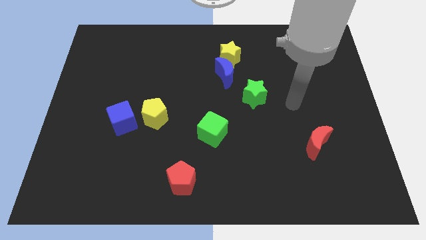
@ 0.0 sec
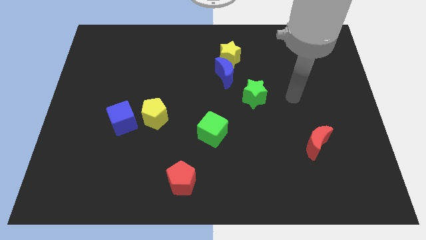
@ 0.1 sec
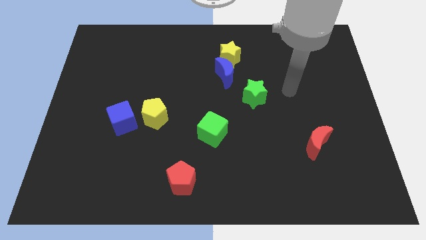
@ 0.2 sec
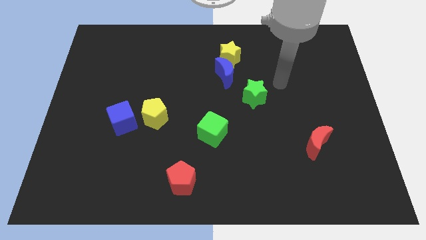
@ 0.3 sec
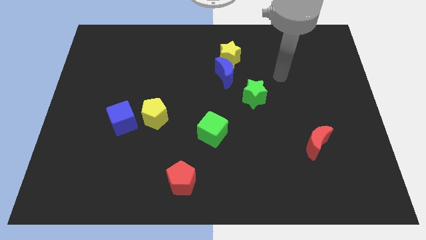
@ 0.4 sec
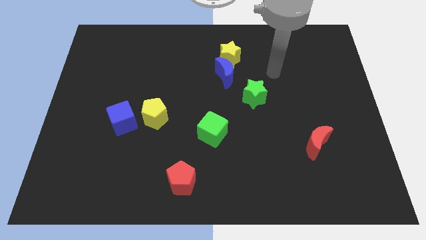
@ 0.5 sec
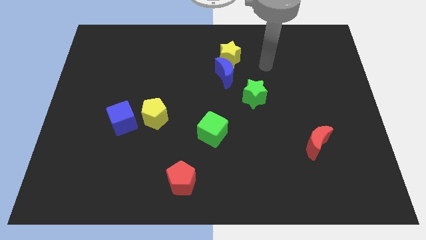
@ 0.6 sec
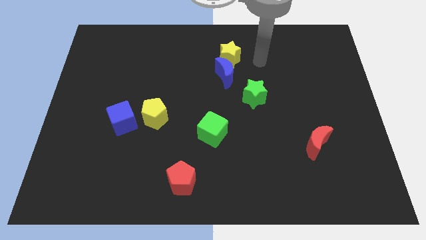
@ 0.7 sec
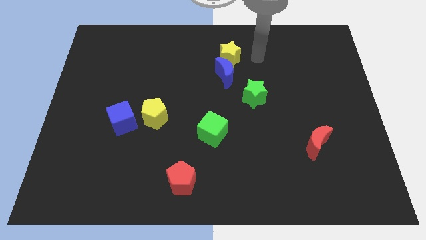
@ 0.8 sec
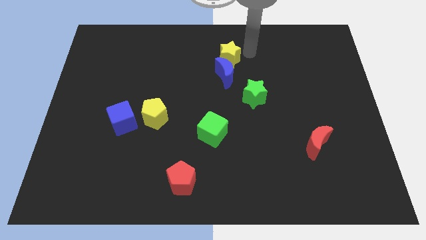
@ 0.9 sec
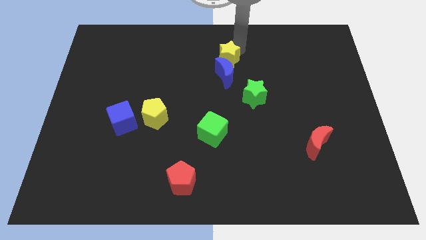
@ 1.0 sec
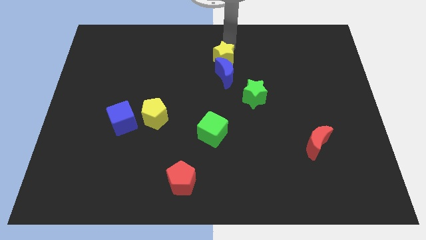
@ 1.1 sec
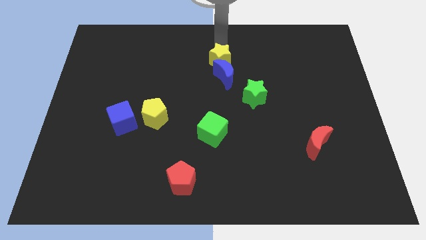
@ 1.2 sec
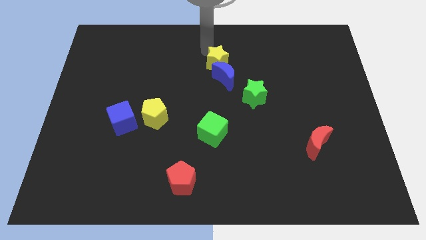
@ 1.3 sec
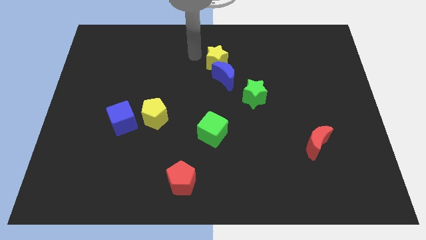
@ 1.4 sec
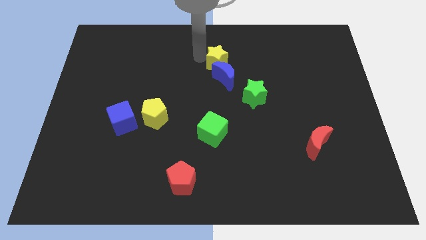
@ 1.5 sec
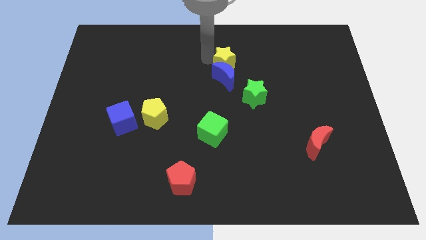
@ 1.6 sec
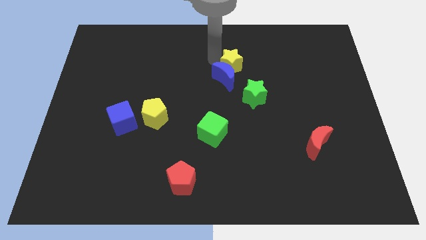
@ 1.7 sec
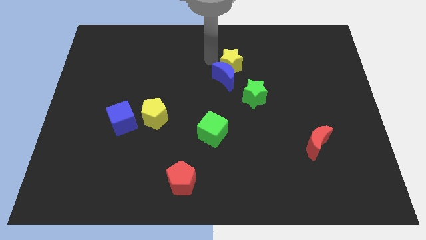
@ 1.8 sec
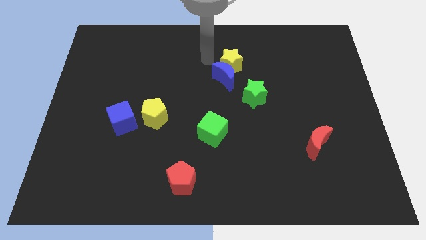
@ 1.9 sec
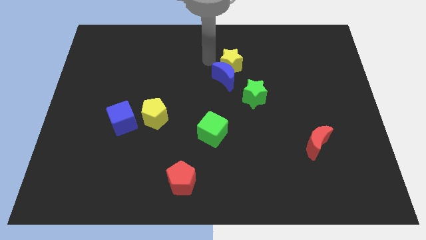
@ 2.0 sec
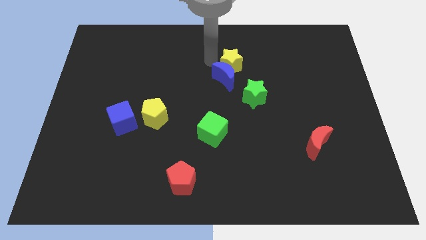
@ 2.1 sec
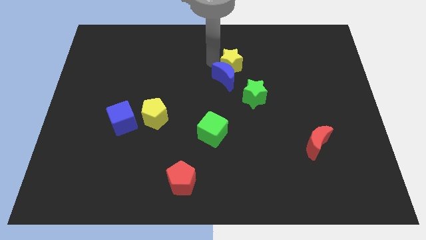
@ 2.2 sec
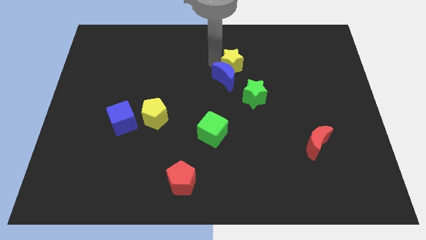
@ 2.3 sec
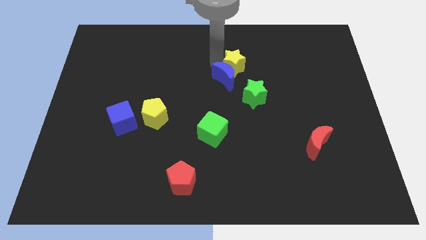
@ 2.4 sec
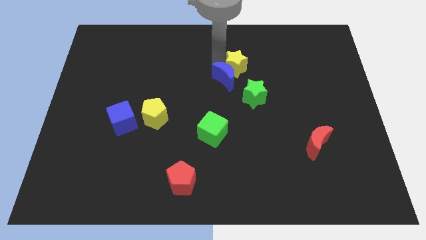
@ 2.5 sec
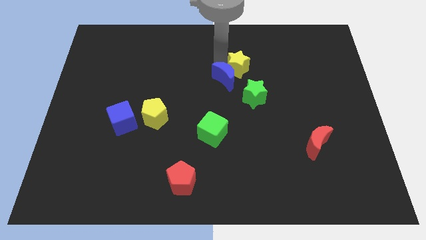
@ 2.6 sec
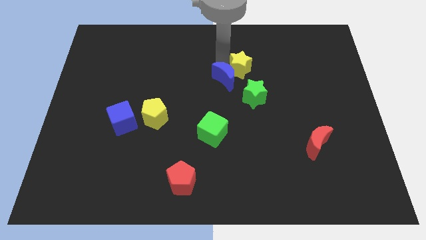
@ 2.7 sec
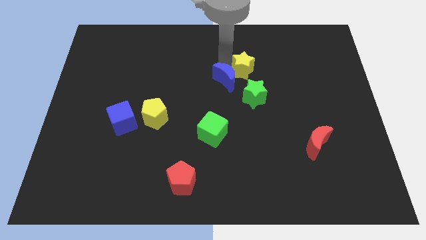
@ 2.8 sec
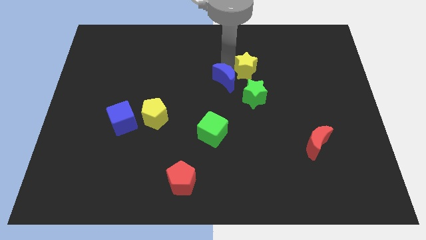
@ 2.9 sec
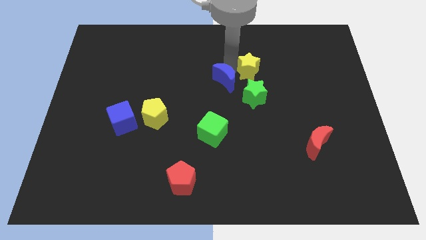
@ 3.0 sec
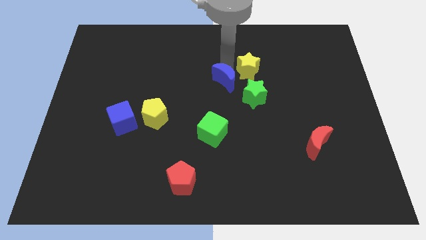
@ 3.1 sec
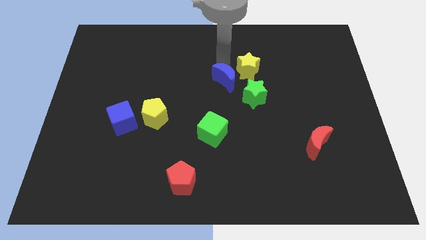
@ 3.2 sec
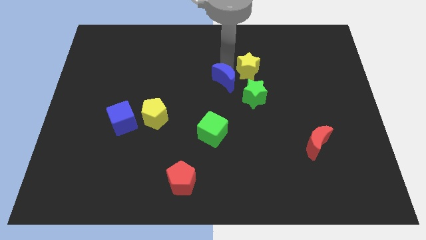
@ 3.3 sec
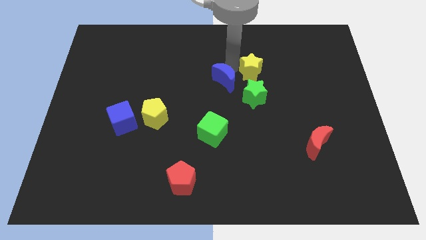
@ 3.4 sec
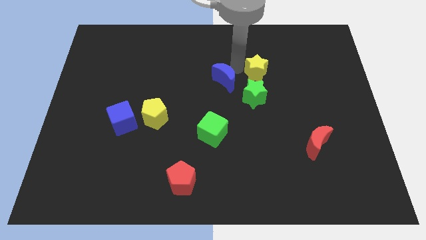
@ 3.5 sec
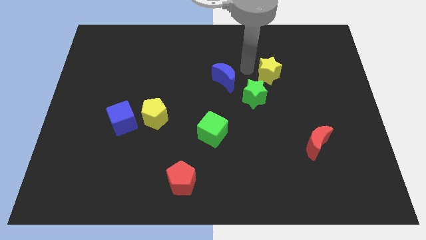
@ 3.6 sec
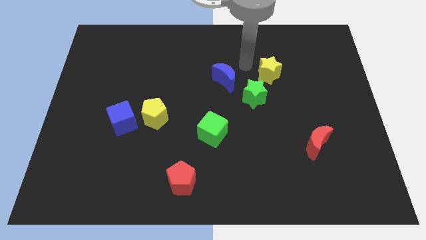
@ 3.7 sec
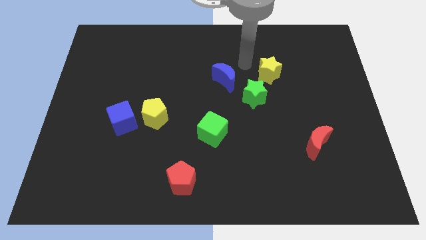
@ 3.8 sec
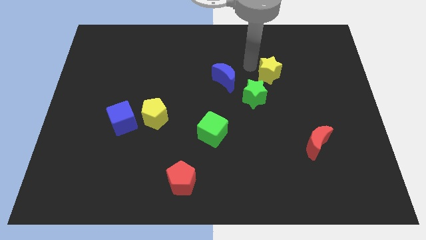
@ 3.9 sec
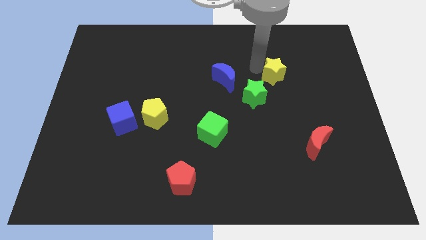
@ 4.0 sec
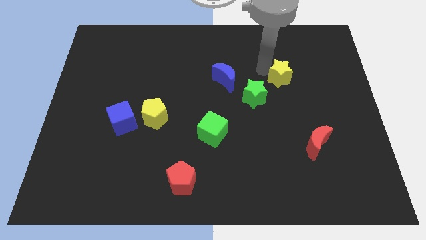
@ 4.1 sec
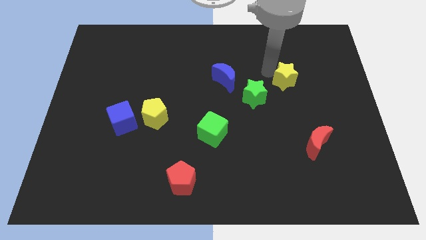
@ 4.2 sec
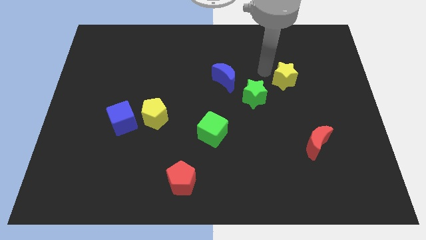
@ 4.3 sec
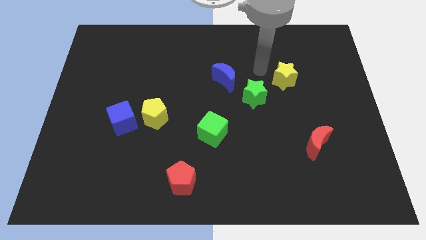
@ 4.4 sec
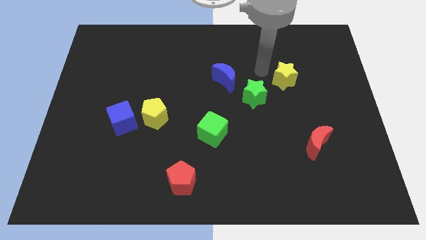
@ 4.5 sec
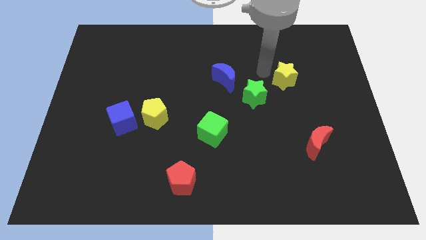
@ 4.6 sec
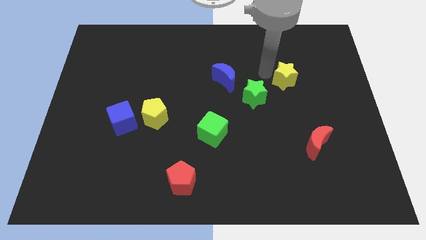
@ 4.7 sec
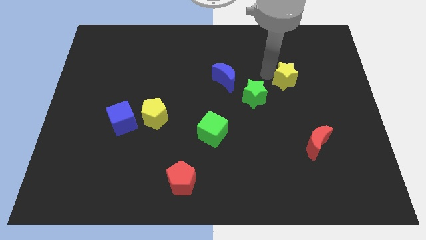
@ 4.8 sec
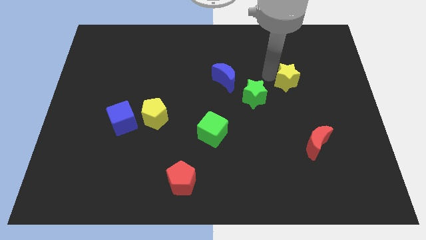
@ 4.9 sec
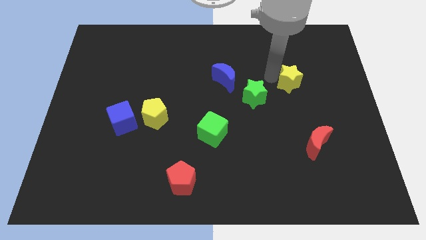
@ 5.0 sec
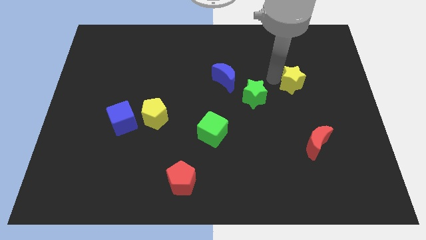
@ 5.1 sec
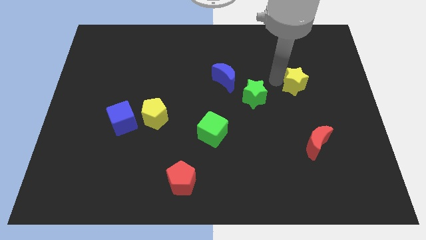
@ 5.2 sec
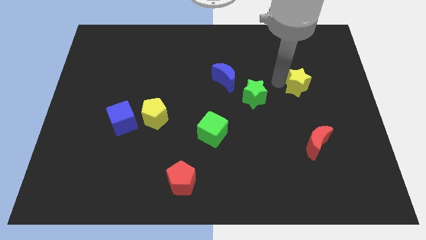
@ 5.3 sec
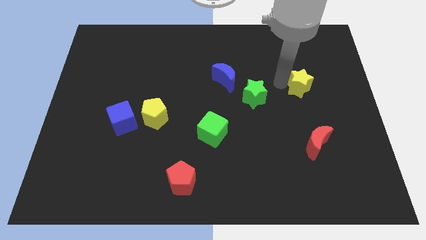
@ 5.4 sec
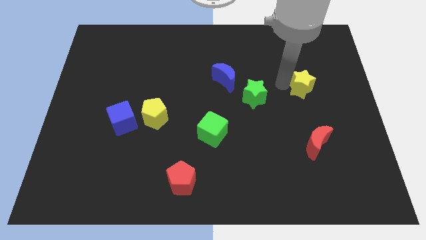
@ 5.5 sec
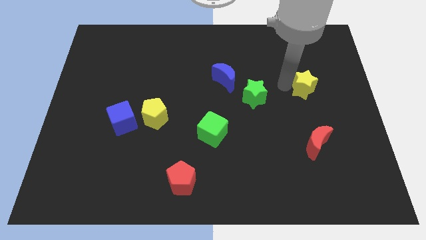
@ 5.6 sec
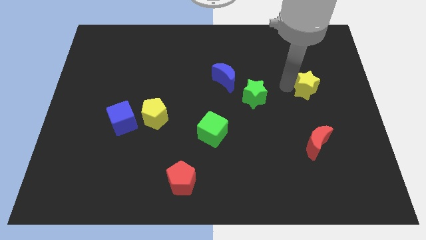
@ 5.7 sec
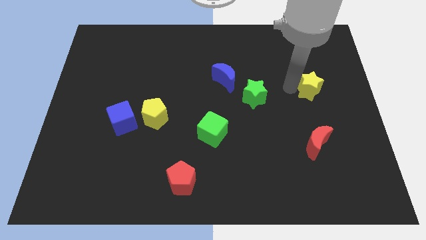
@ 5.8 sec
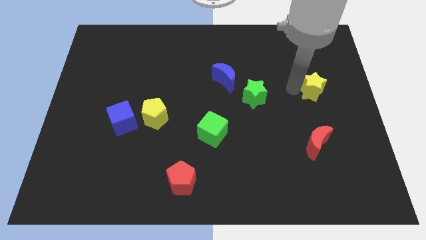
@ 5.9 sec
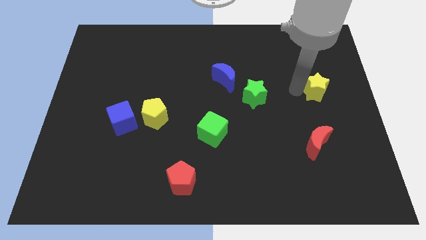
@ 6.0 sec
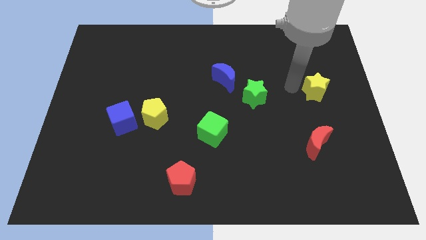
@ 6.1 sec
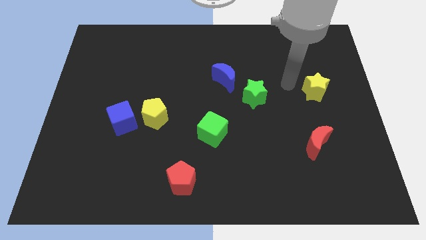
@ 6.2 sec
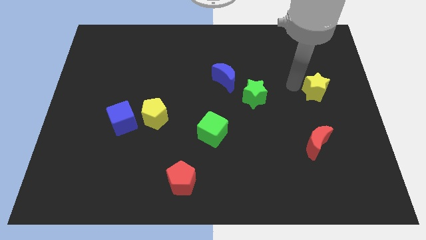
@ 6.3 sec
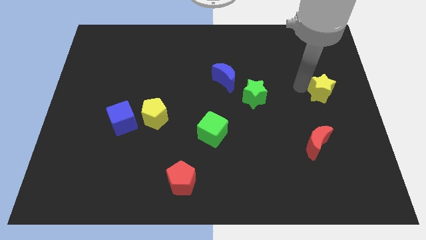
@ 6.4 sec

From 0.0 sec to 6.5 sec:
slide the yellow star to the center right

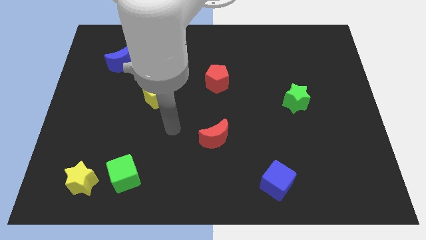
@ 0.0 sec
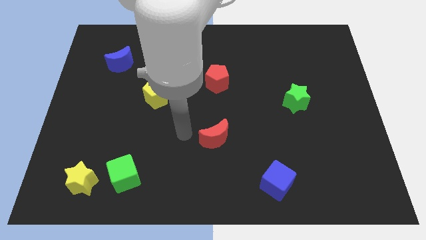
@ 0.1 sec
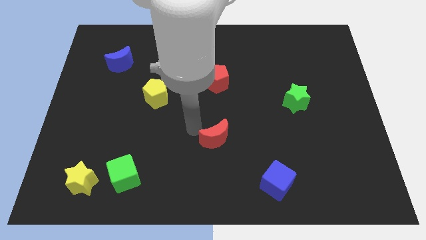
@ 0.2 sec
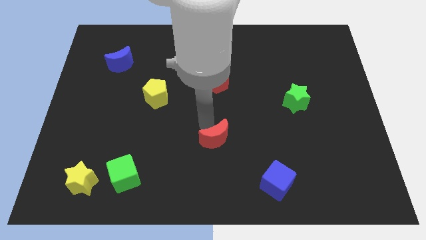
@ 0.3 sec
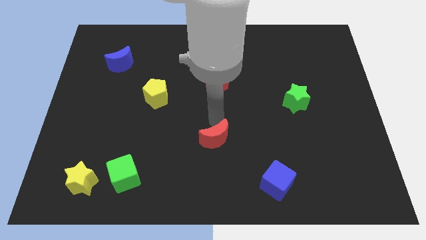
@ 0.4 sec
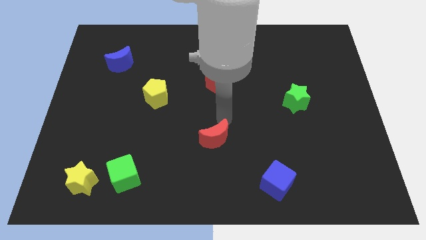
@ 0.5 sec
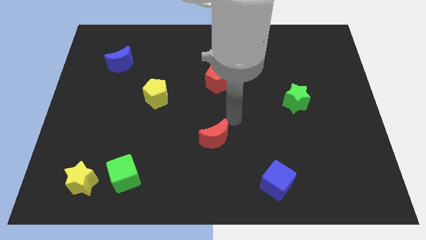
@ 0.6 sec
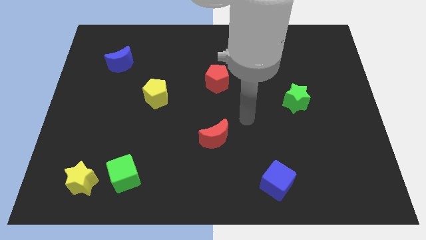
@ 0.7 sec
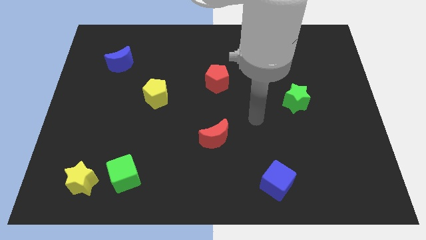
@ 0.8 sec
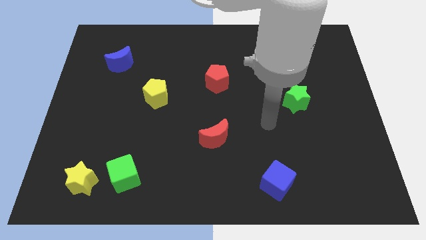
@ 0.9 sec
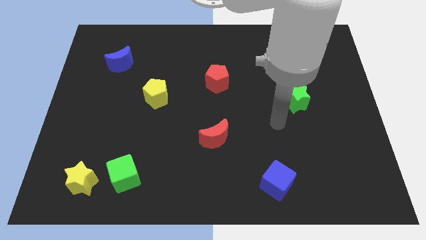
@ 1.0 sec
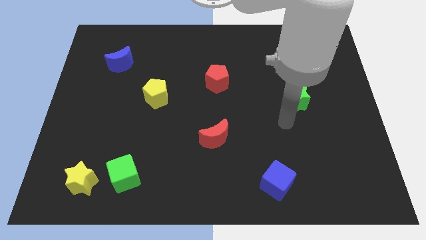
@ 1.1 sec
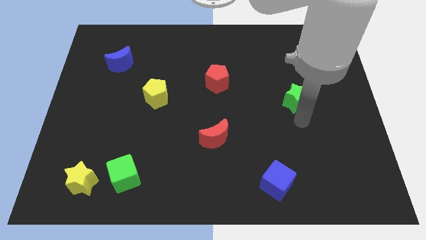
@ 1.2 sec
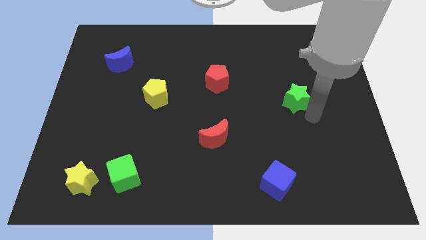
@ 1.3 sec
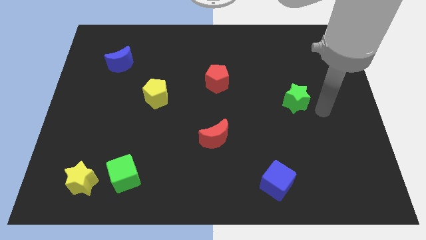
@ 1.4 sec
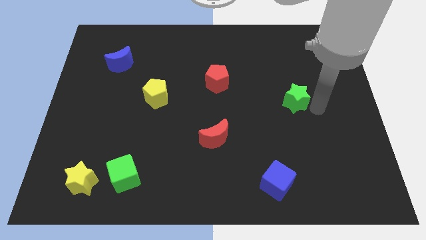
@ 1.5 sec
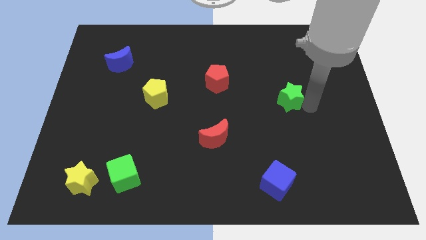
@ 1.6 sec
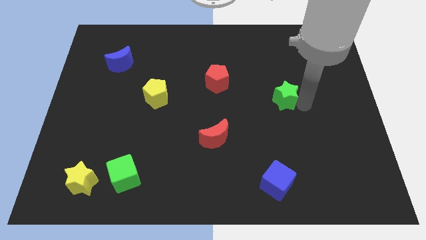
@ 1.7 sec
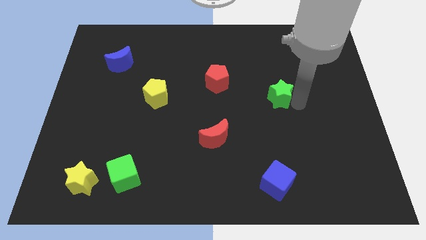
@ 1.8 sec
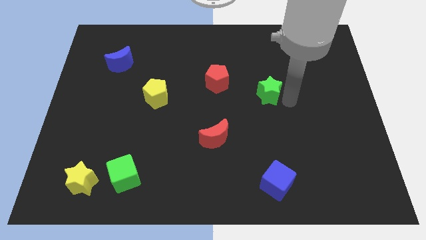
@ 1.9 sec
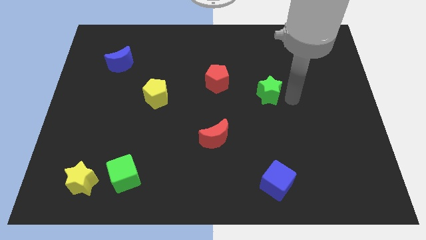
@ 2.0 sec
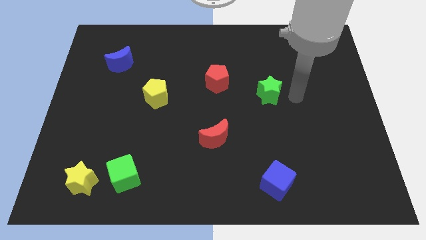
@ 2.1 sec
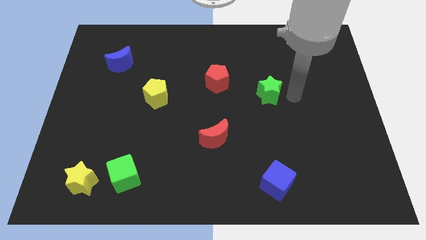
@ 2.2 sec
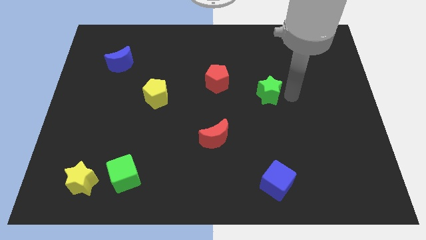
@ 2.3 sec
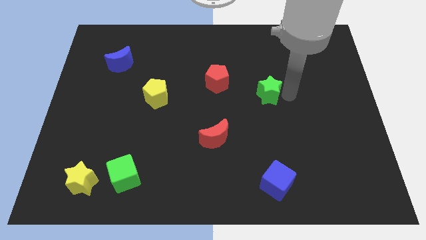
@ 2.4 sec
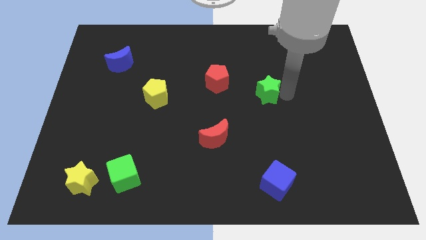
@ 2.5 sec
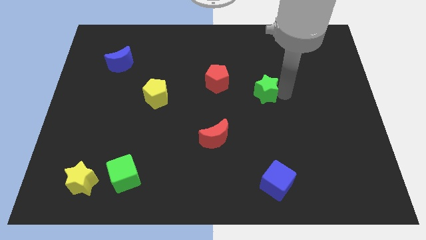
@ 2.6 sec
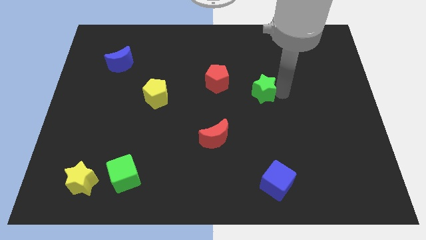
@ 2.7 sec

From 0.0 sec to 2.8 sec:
push the green star to the middle of the board
